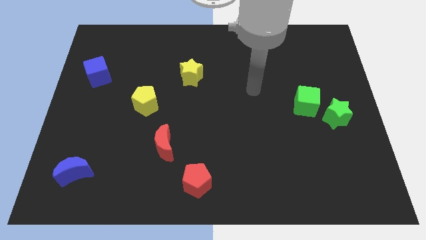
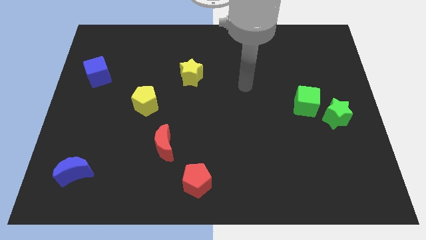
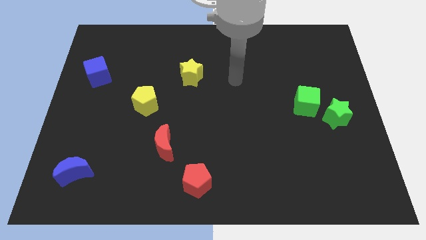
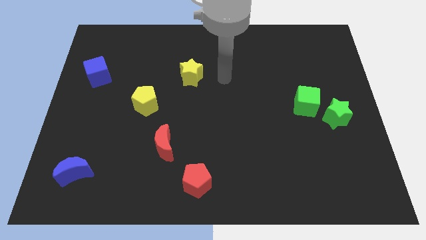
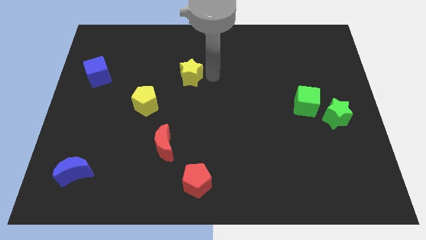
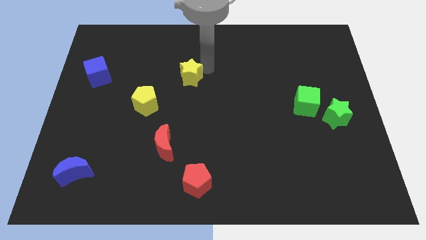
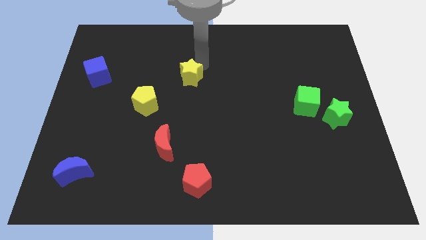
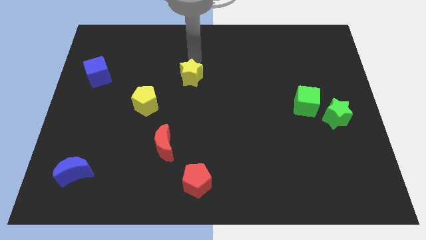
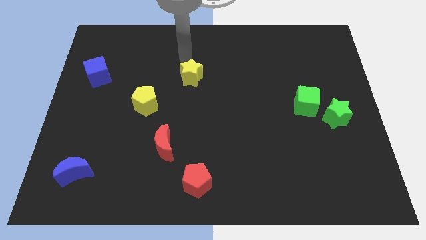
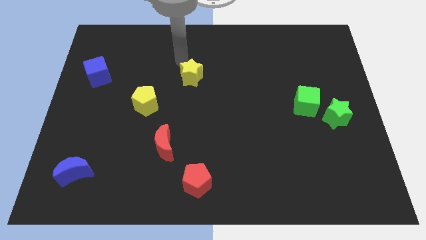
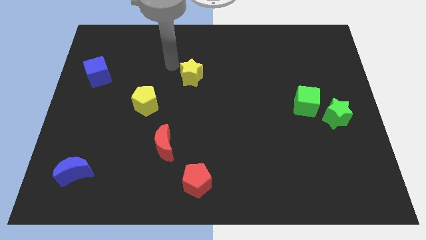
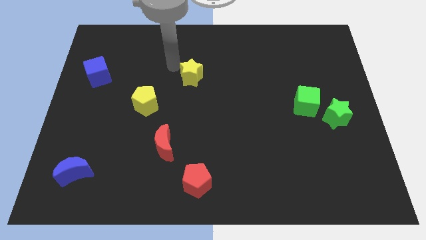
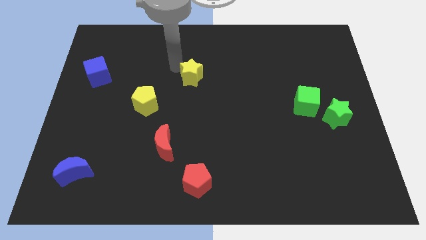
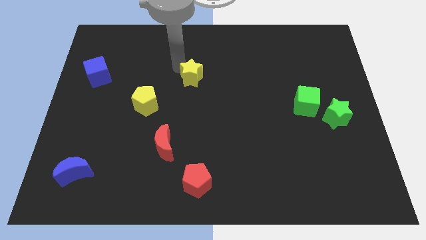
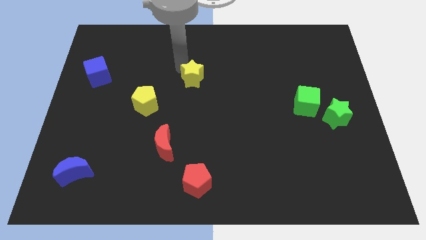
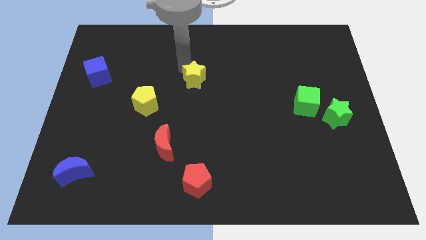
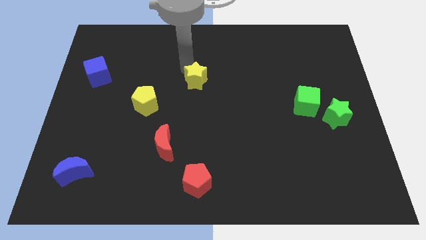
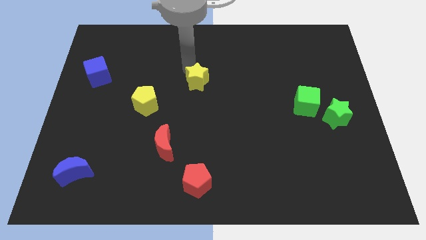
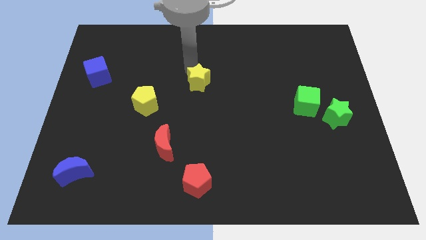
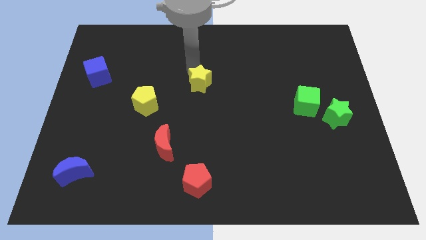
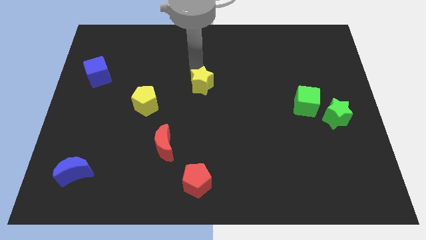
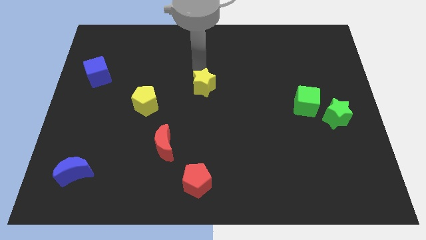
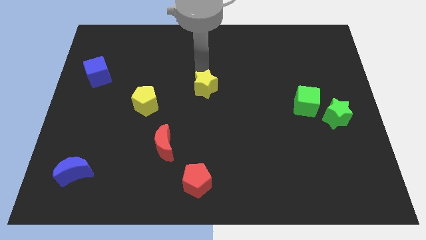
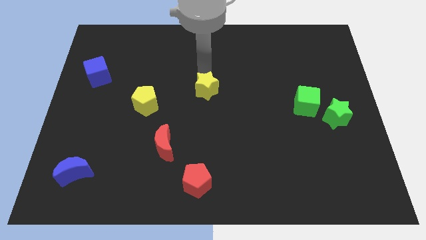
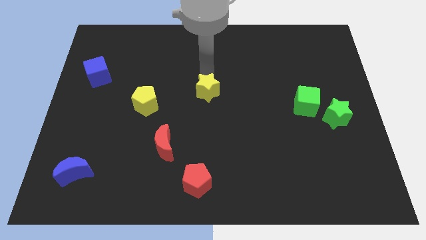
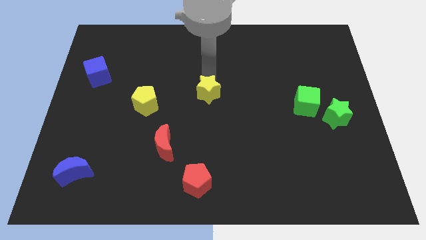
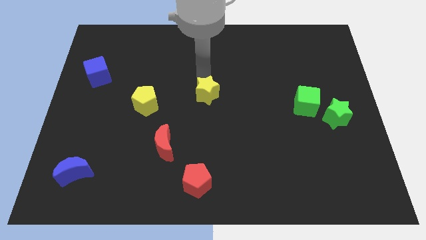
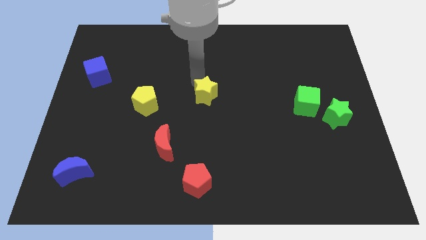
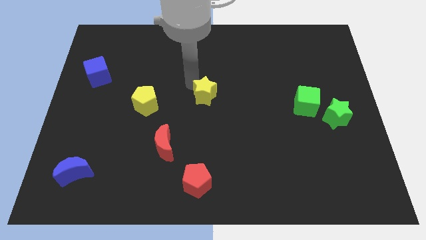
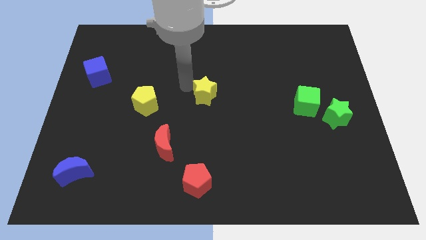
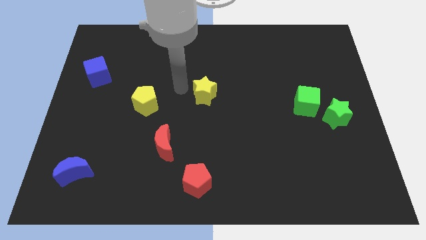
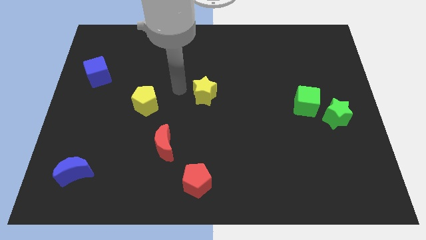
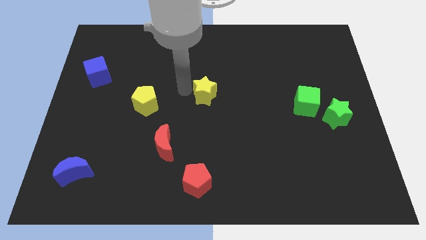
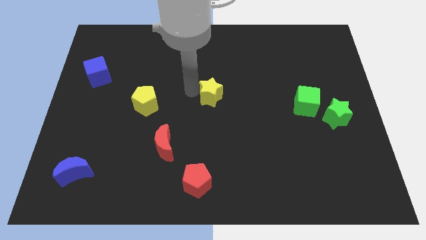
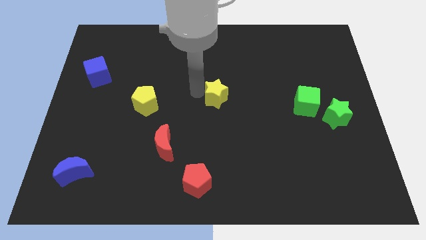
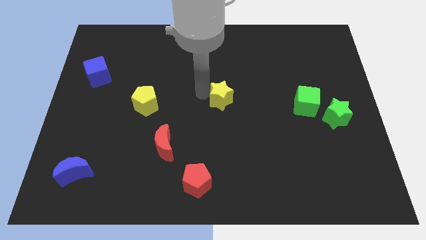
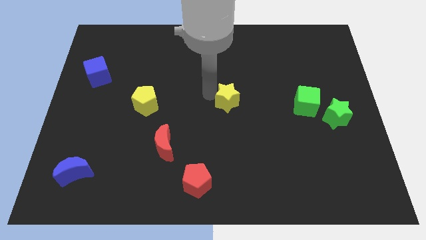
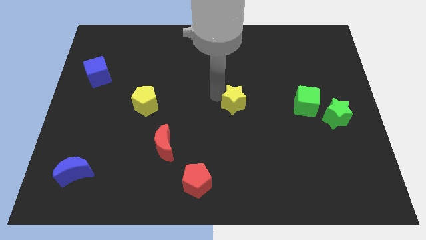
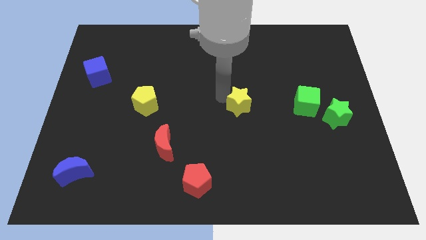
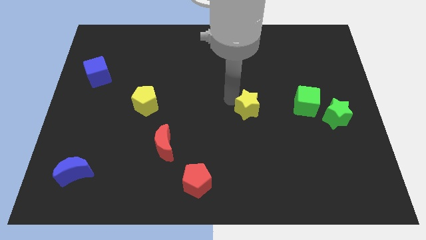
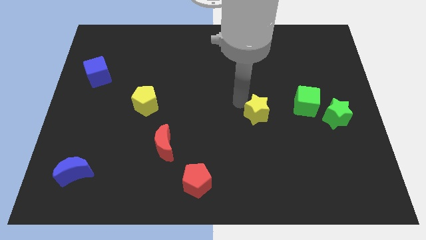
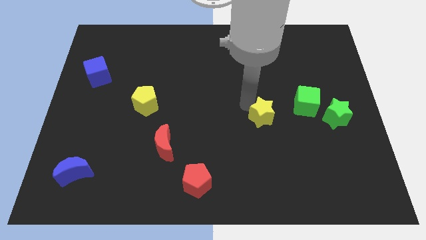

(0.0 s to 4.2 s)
move the yellow star diagonally down and right

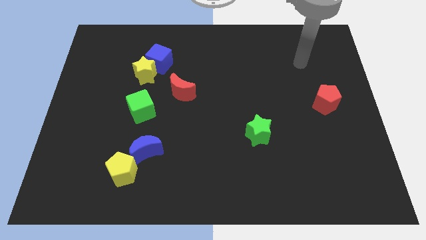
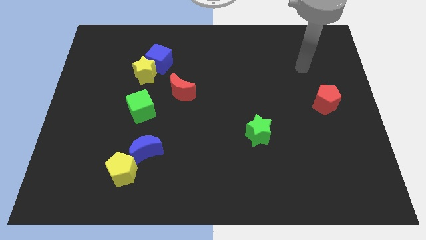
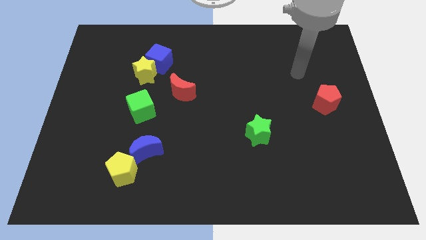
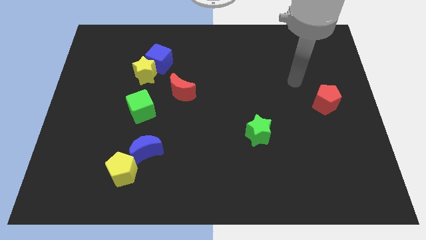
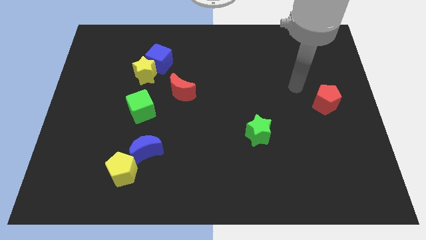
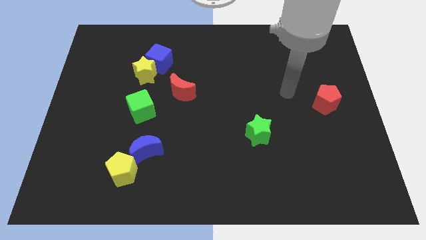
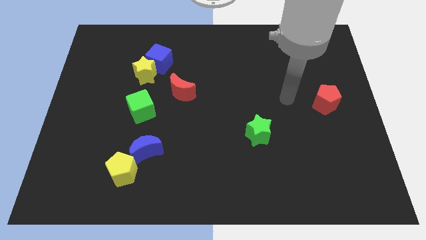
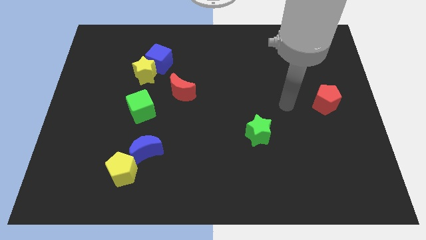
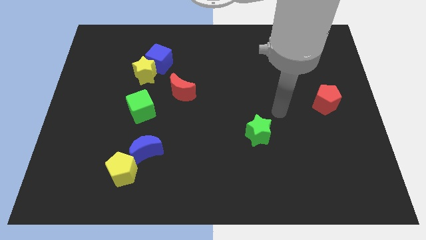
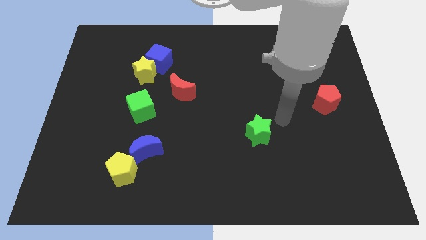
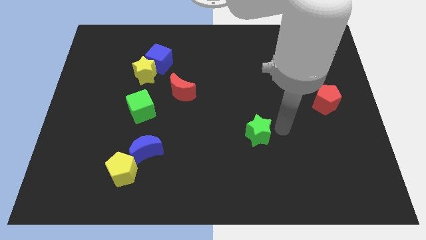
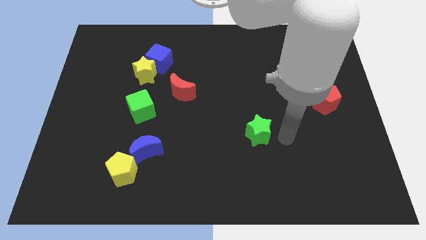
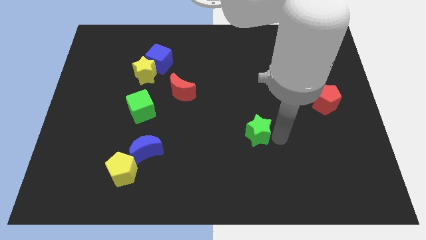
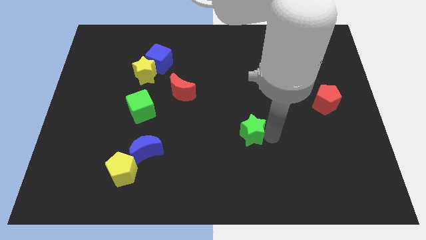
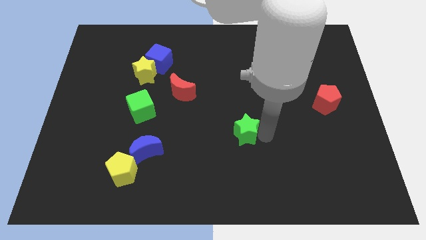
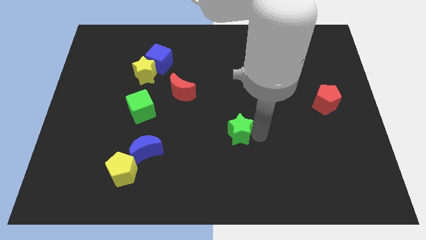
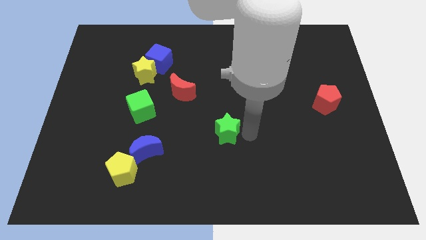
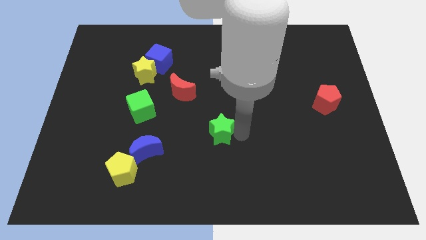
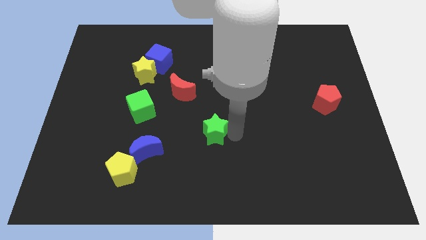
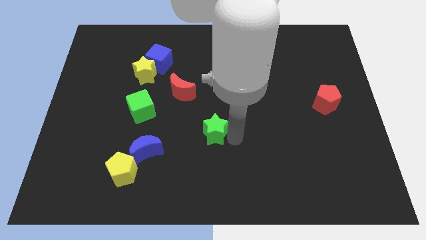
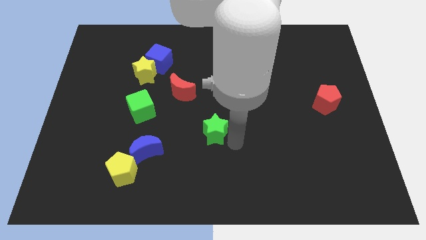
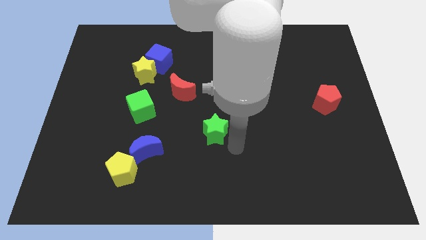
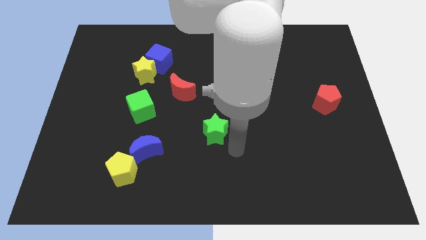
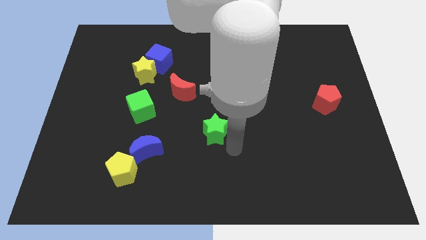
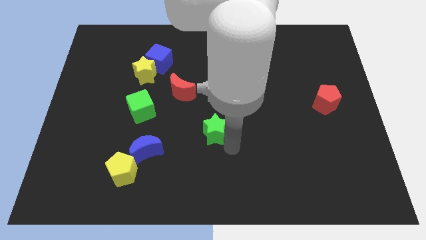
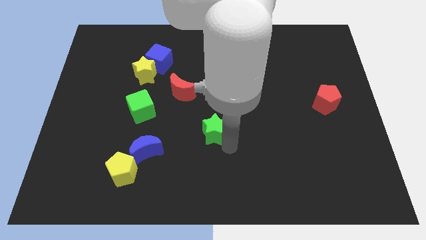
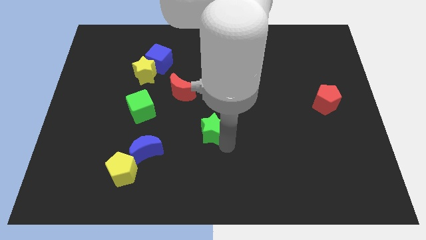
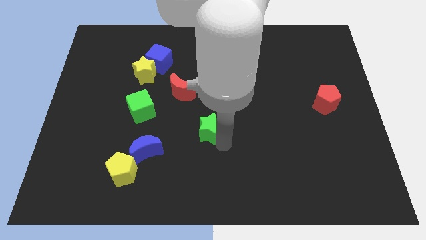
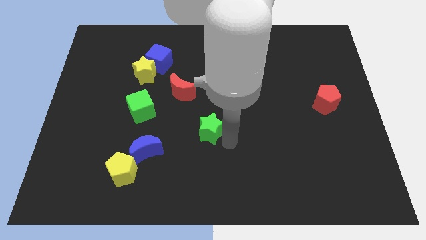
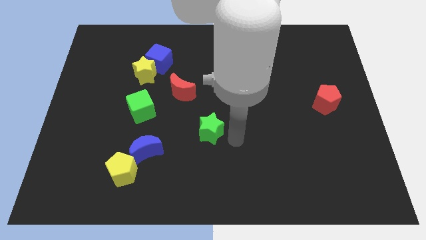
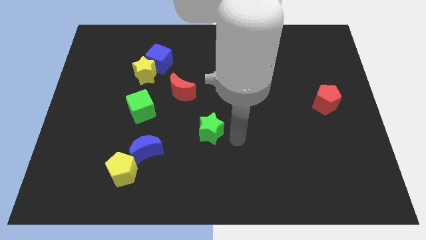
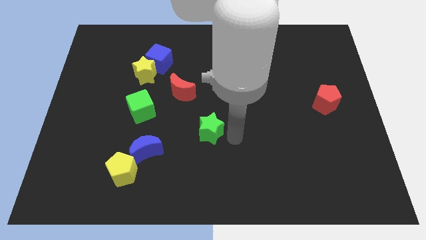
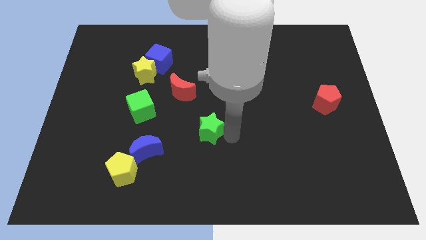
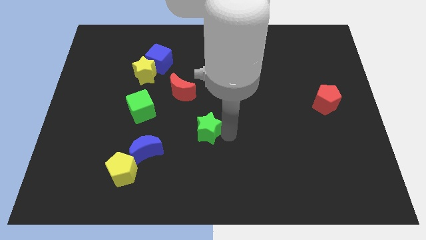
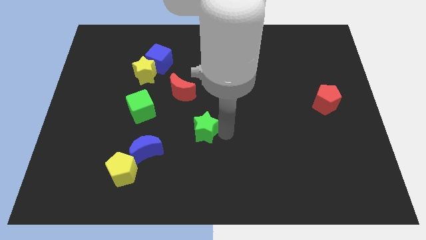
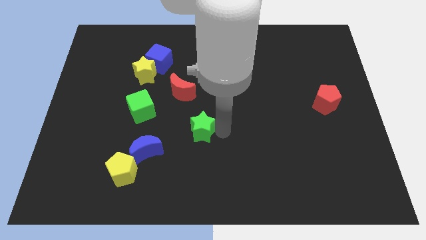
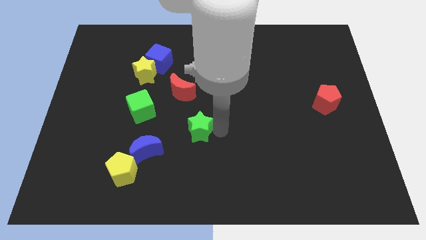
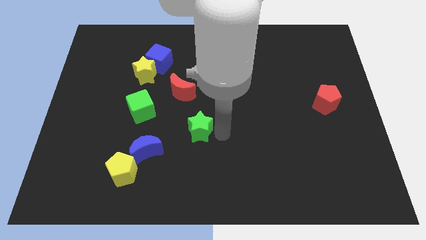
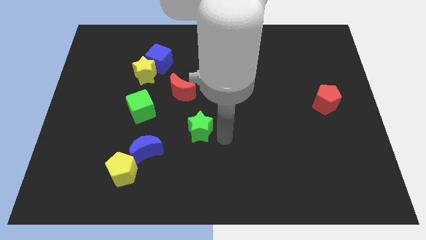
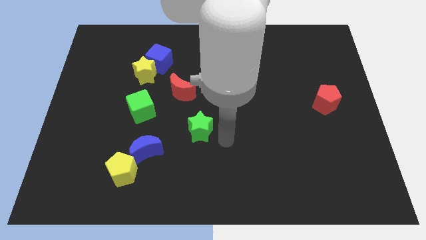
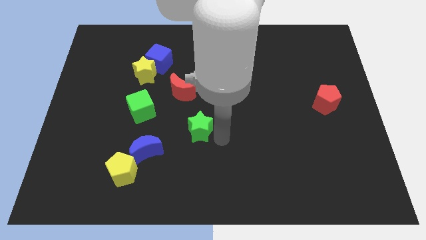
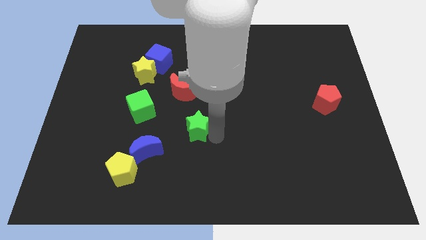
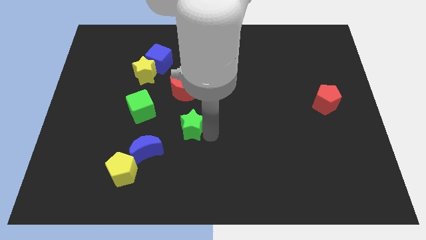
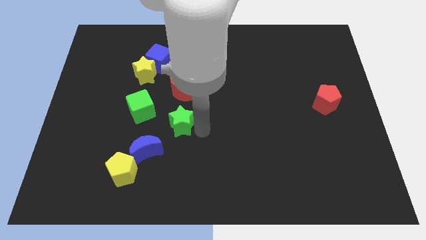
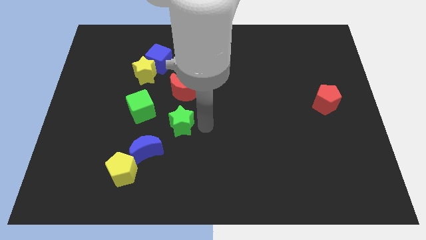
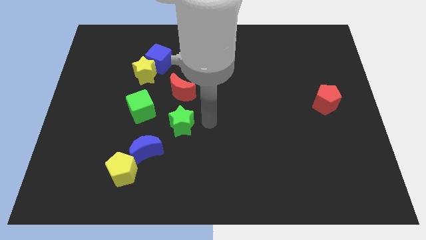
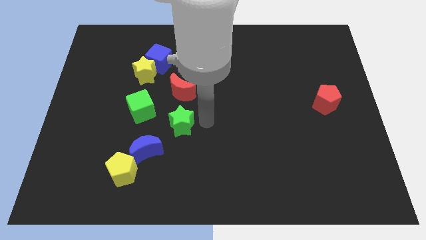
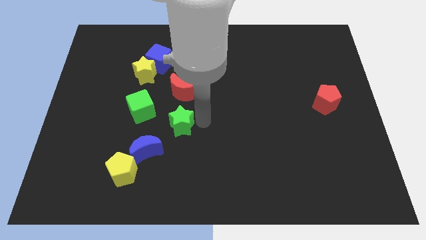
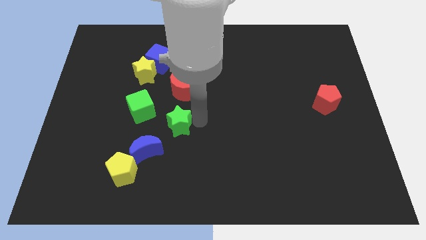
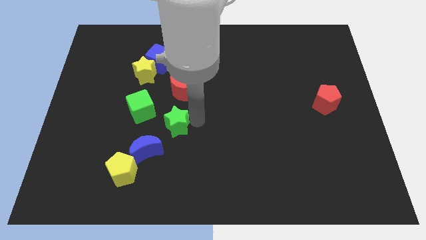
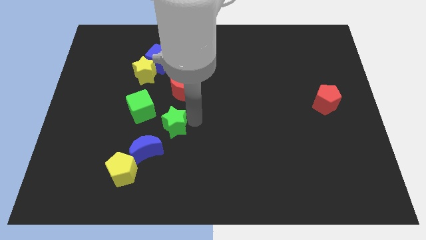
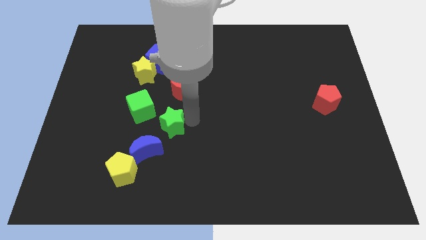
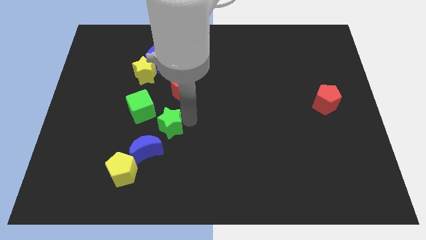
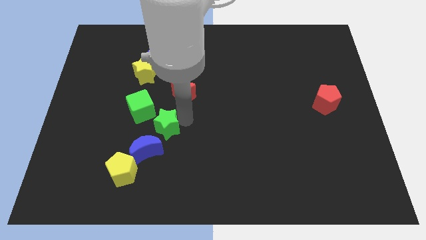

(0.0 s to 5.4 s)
push the green star to the left
